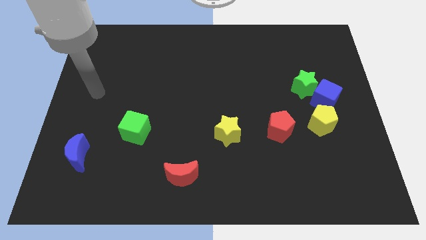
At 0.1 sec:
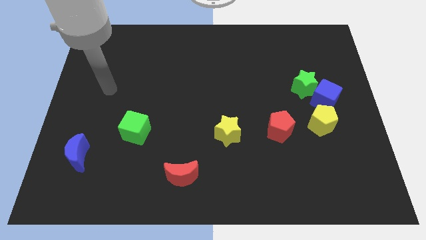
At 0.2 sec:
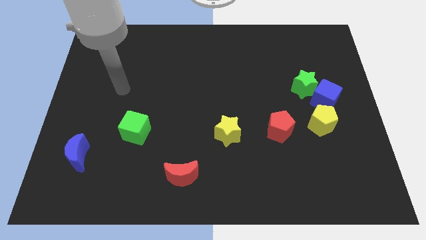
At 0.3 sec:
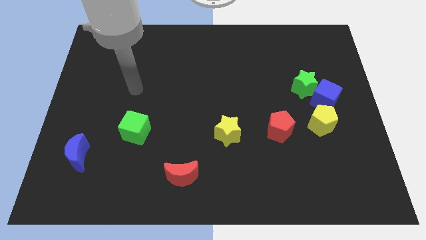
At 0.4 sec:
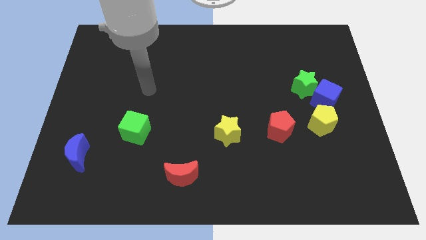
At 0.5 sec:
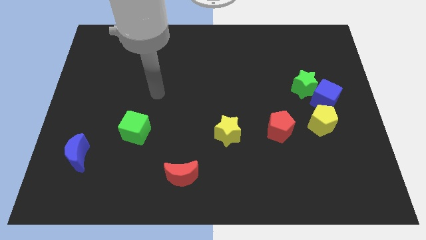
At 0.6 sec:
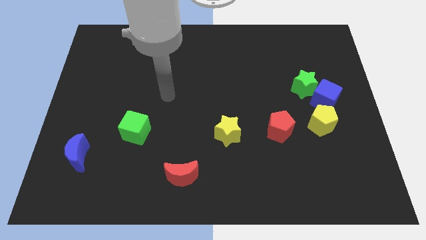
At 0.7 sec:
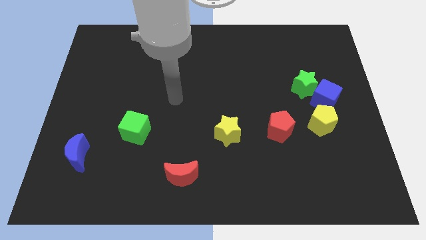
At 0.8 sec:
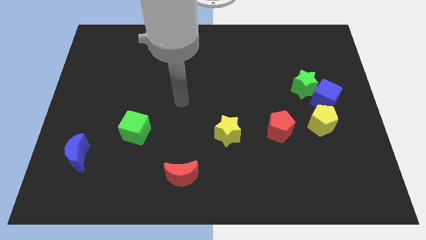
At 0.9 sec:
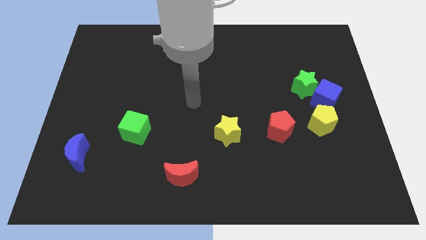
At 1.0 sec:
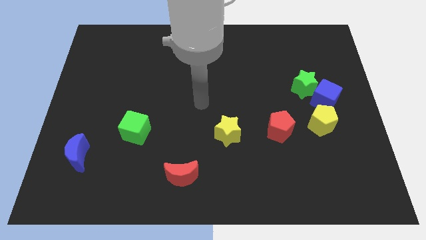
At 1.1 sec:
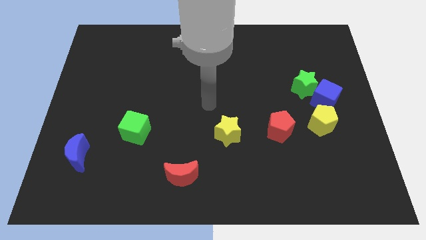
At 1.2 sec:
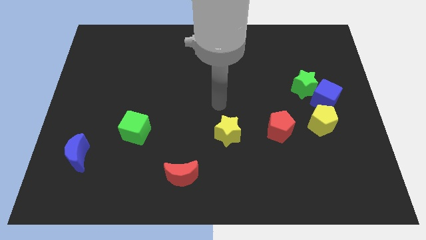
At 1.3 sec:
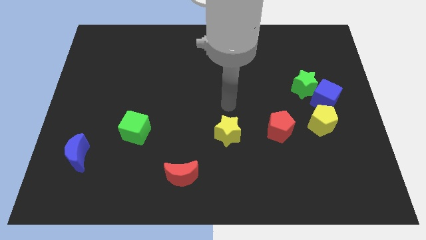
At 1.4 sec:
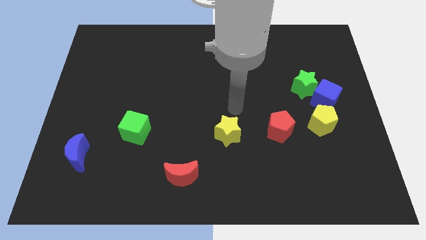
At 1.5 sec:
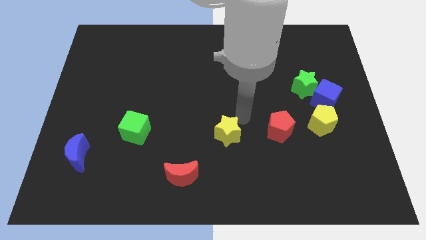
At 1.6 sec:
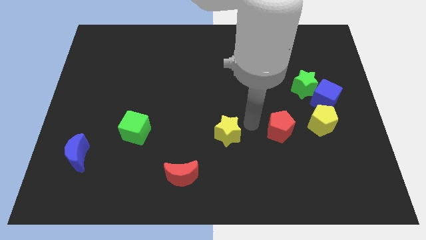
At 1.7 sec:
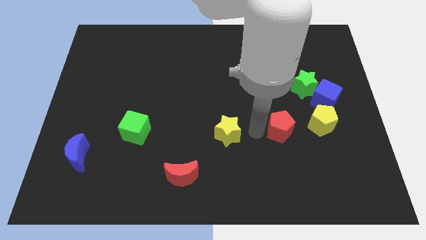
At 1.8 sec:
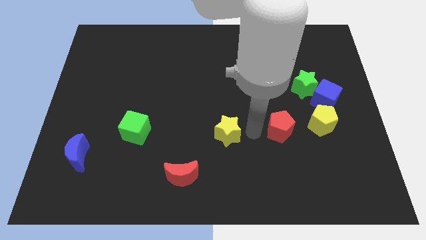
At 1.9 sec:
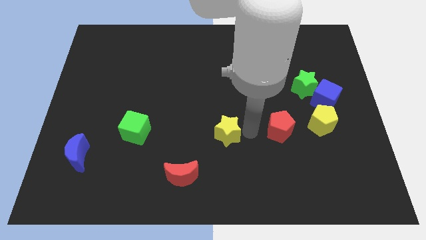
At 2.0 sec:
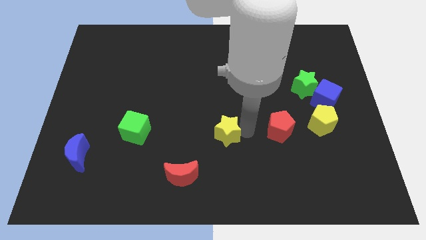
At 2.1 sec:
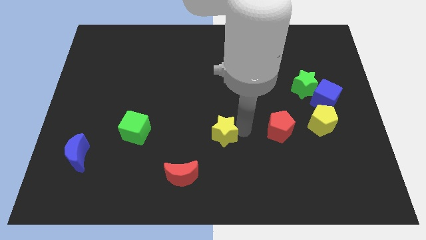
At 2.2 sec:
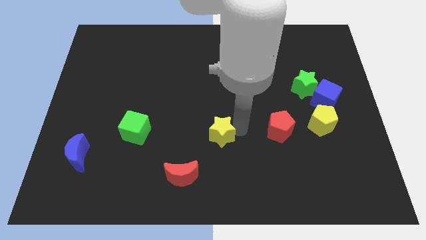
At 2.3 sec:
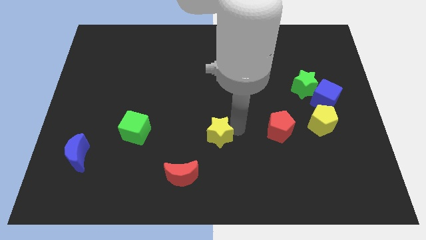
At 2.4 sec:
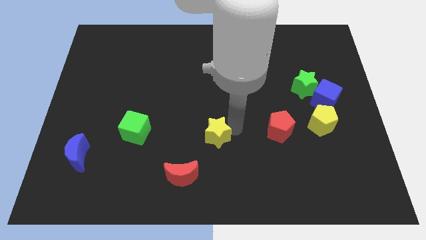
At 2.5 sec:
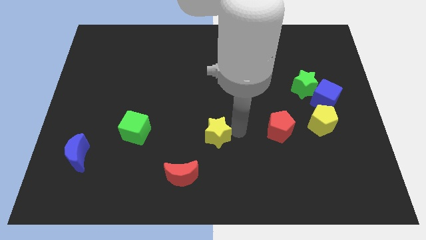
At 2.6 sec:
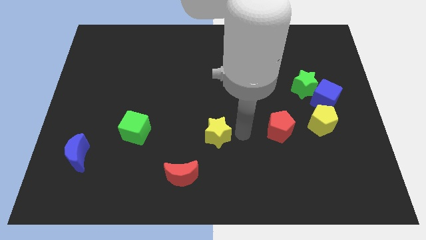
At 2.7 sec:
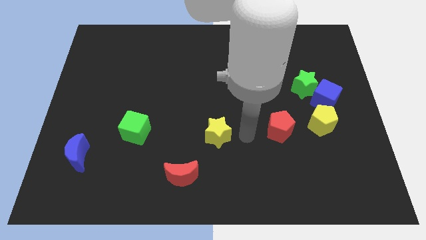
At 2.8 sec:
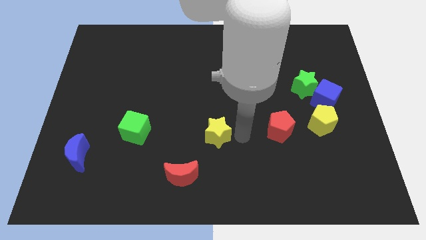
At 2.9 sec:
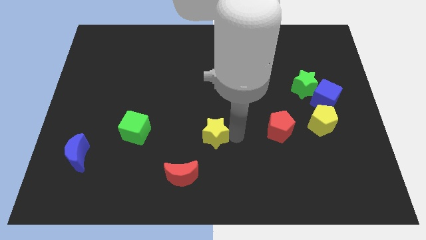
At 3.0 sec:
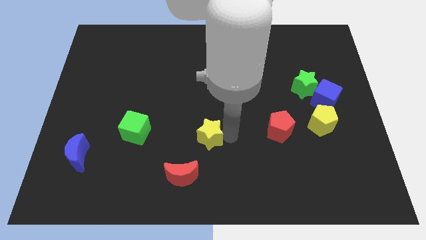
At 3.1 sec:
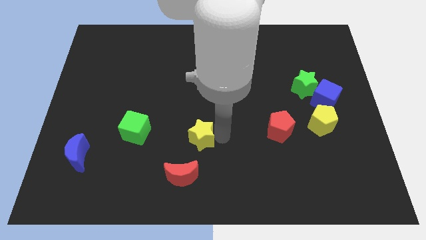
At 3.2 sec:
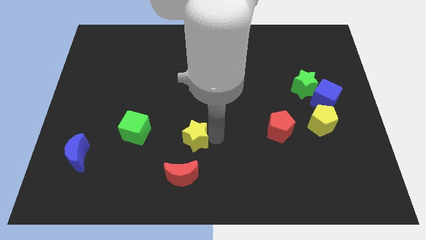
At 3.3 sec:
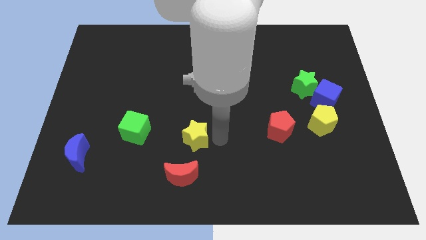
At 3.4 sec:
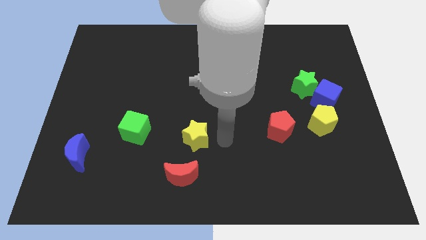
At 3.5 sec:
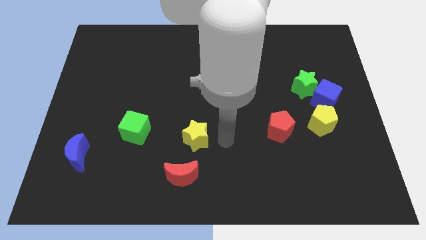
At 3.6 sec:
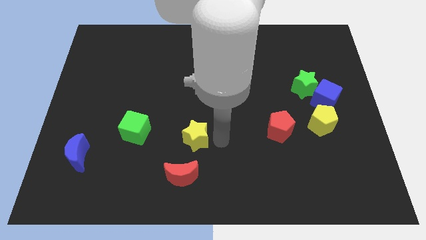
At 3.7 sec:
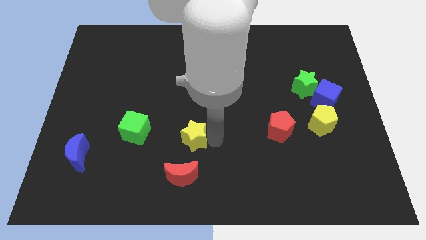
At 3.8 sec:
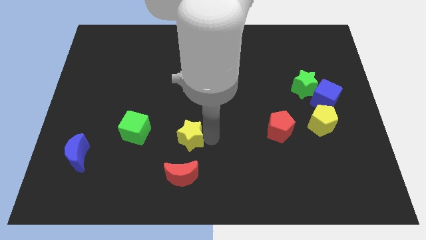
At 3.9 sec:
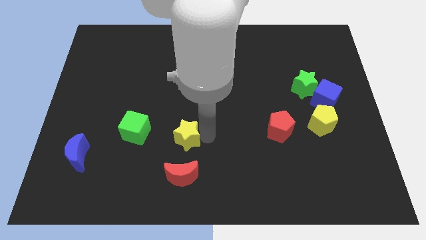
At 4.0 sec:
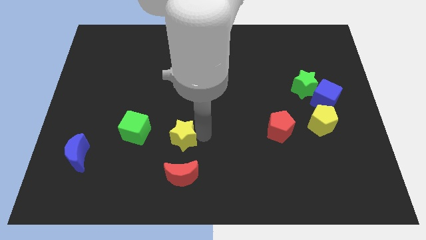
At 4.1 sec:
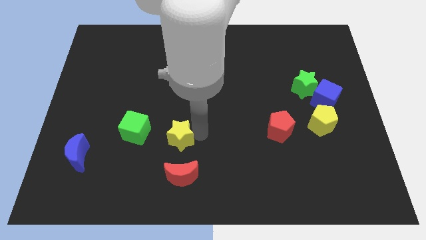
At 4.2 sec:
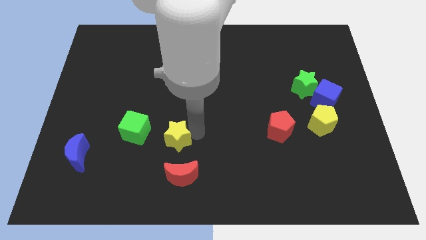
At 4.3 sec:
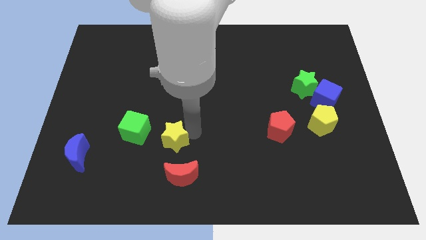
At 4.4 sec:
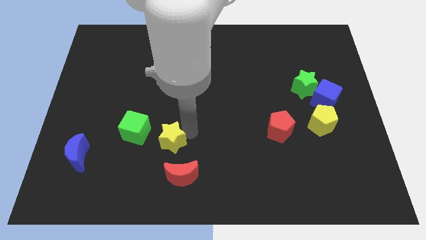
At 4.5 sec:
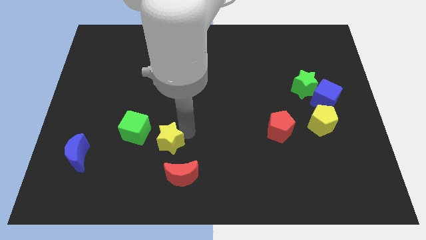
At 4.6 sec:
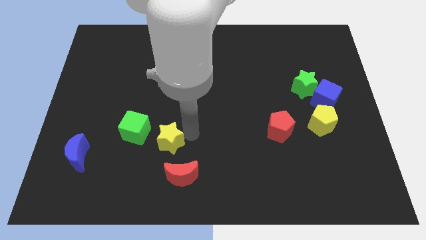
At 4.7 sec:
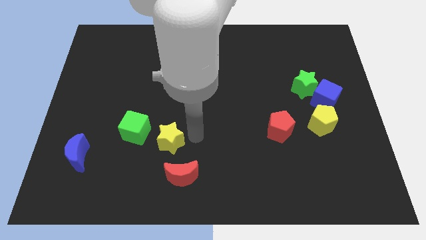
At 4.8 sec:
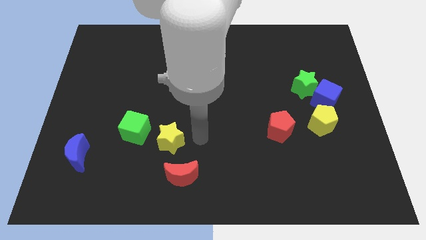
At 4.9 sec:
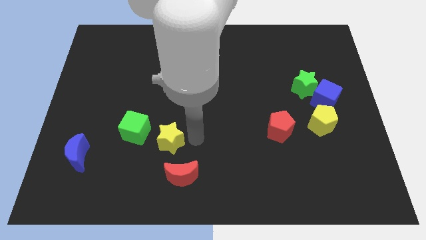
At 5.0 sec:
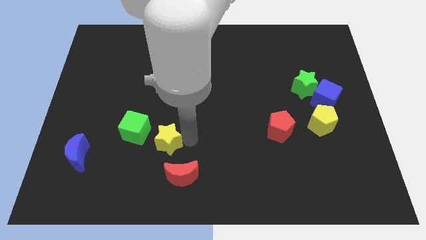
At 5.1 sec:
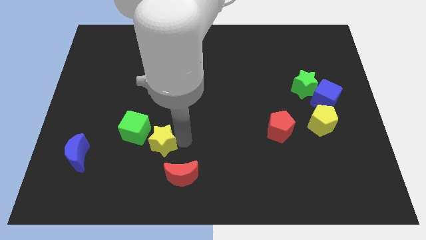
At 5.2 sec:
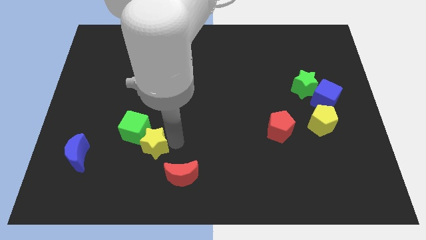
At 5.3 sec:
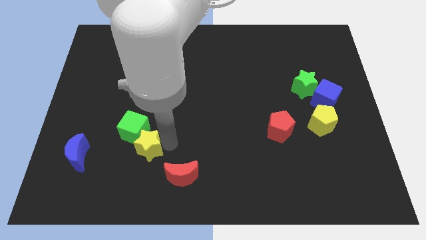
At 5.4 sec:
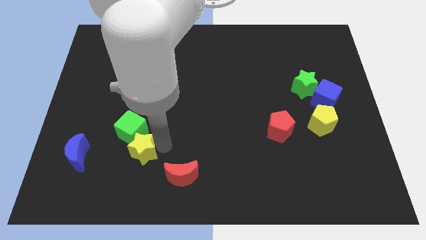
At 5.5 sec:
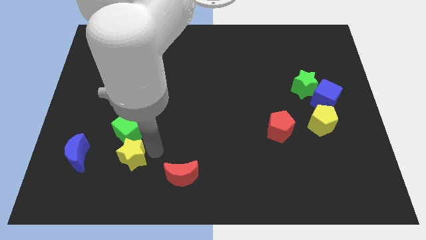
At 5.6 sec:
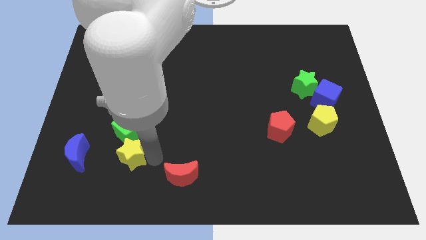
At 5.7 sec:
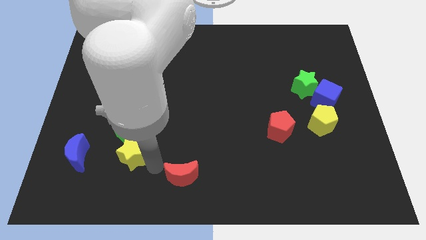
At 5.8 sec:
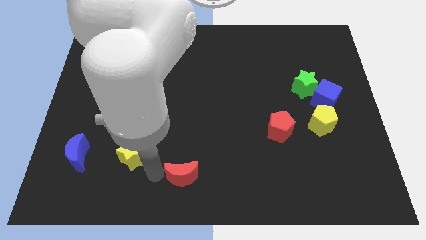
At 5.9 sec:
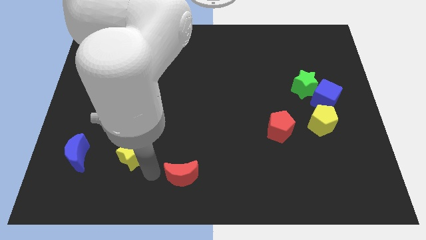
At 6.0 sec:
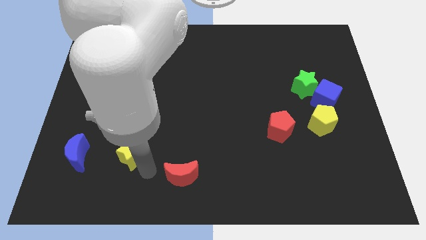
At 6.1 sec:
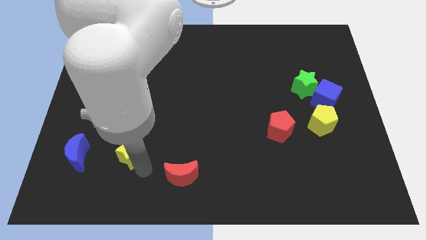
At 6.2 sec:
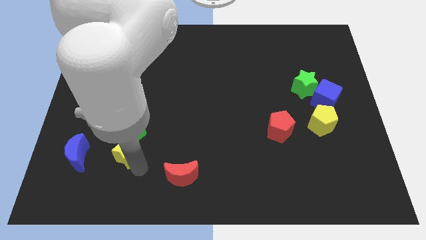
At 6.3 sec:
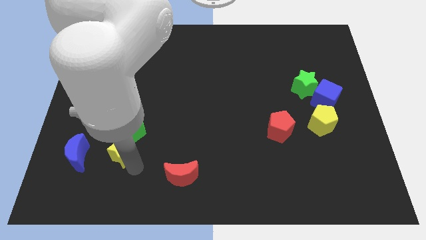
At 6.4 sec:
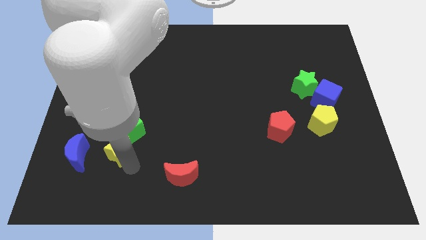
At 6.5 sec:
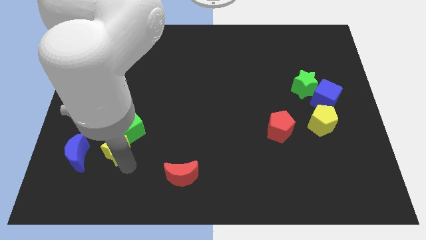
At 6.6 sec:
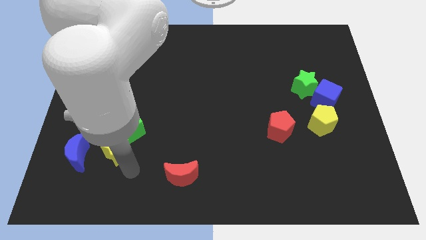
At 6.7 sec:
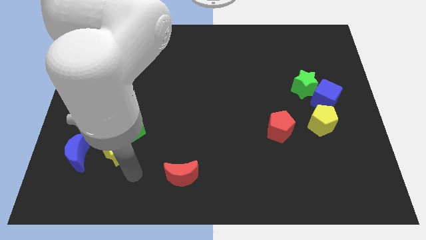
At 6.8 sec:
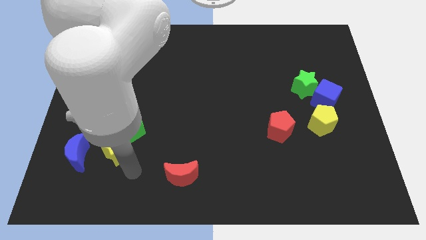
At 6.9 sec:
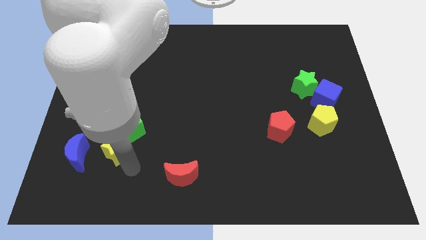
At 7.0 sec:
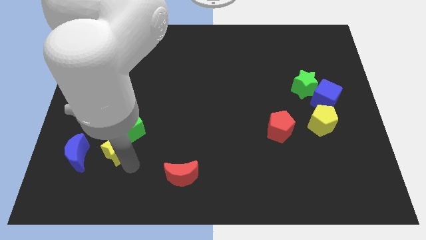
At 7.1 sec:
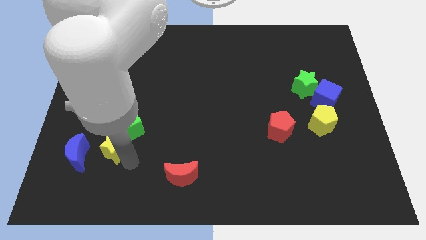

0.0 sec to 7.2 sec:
slide the yellow star to the top right side of the blue moon

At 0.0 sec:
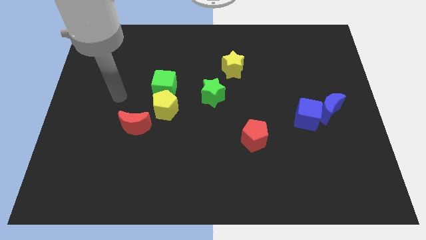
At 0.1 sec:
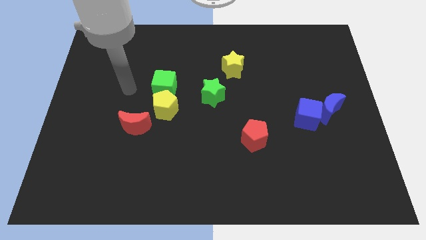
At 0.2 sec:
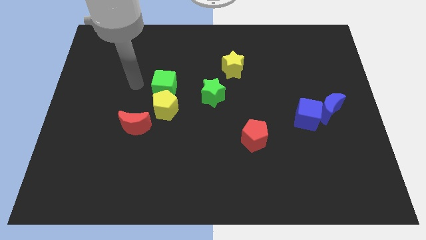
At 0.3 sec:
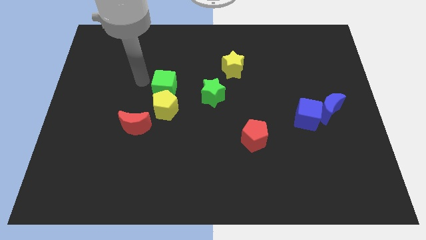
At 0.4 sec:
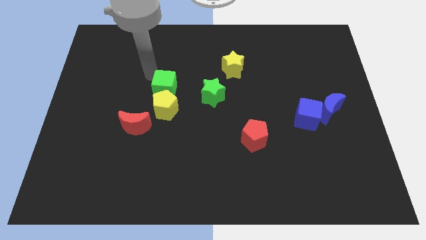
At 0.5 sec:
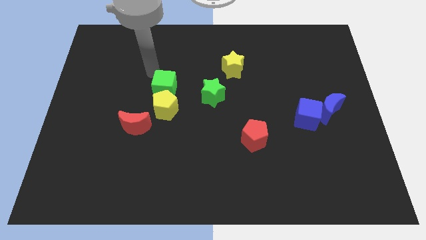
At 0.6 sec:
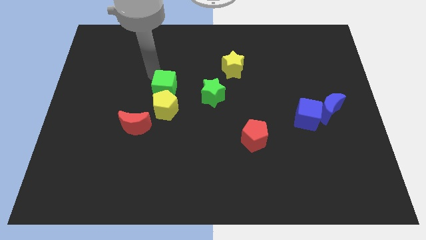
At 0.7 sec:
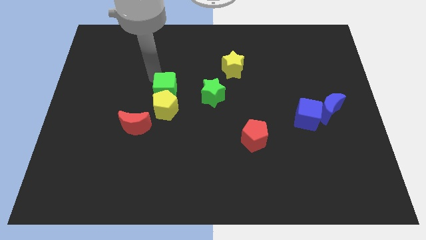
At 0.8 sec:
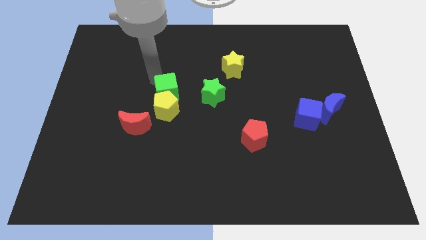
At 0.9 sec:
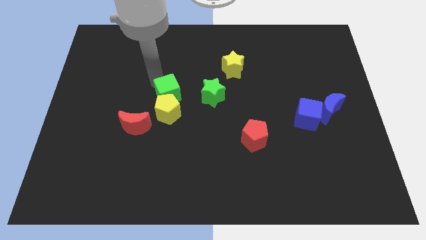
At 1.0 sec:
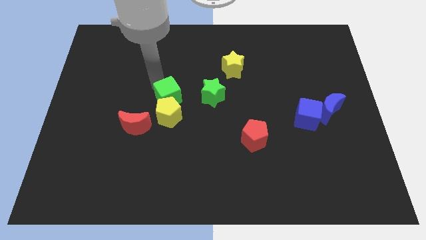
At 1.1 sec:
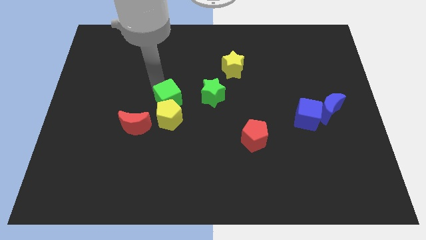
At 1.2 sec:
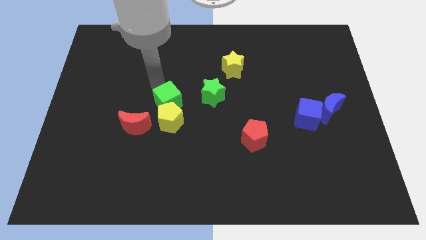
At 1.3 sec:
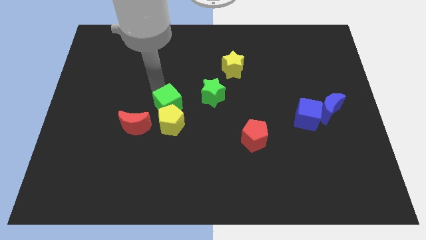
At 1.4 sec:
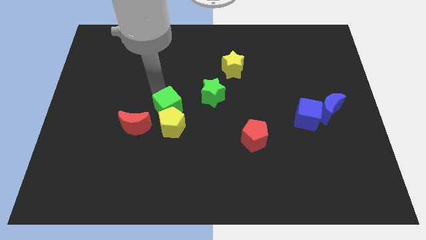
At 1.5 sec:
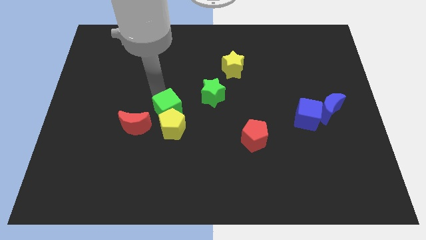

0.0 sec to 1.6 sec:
push the green cube to the right of the red moon
